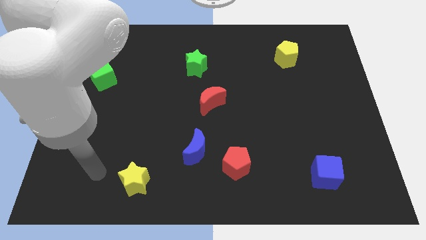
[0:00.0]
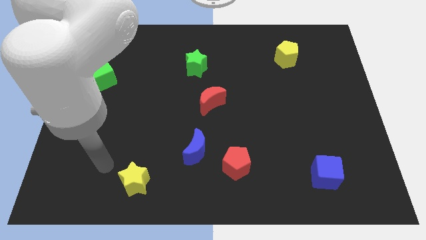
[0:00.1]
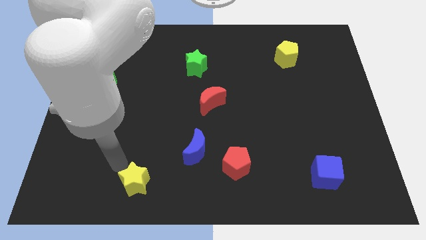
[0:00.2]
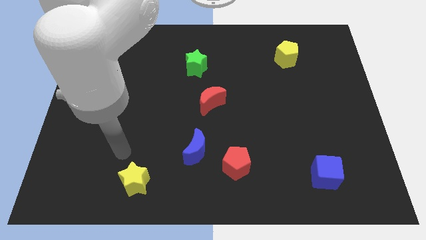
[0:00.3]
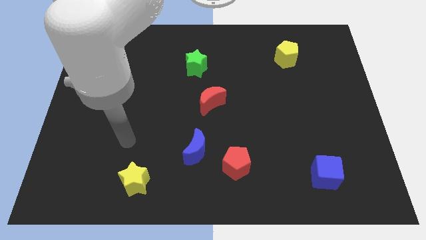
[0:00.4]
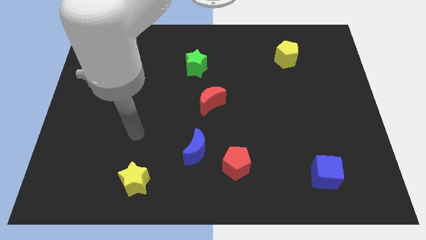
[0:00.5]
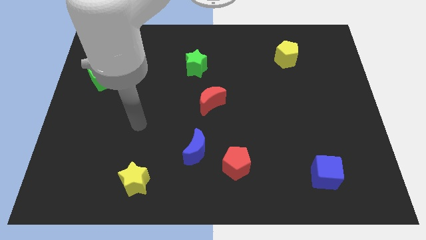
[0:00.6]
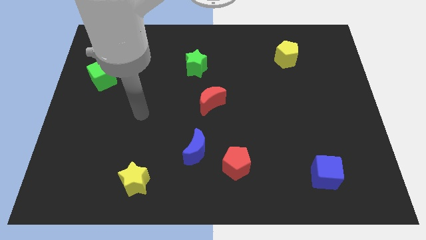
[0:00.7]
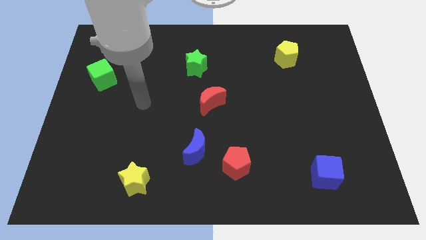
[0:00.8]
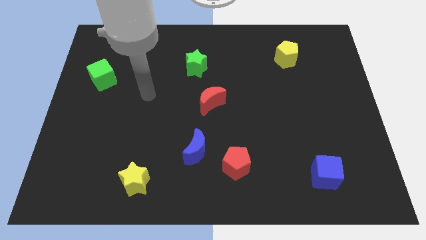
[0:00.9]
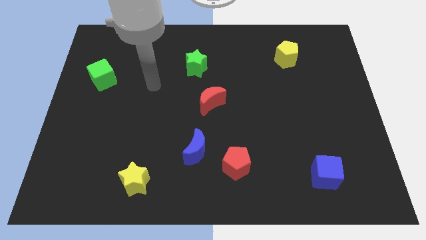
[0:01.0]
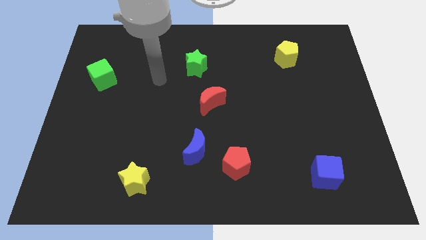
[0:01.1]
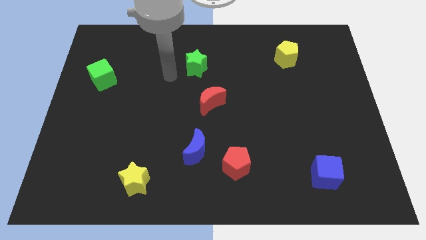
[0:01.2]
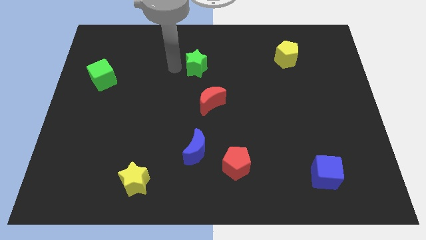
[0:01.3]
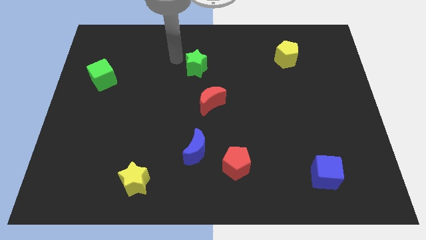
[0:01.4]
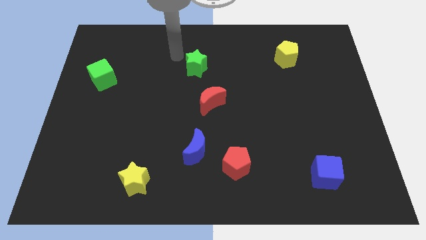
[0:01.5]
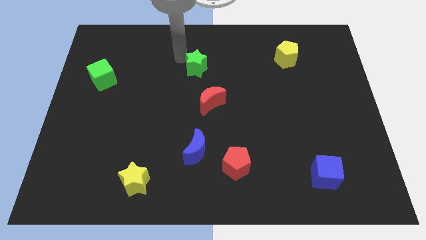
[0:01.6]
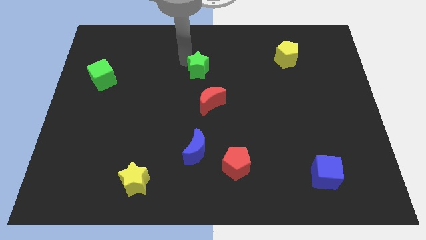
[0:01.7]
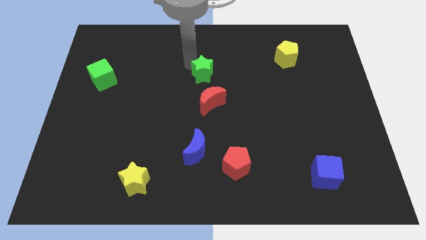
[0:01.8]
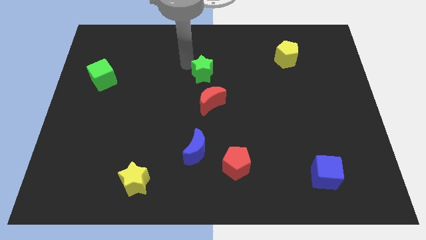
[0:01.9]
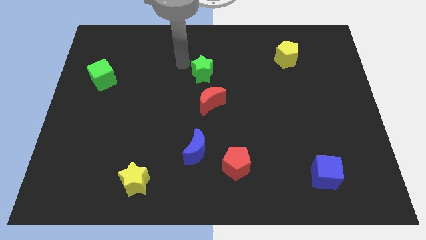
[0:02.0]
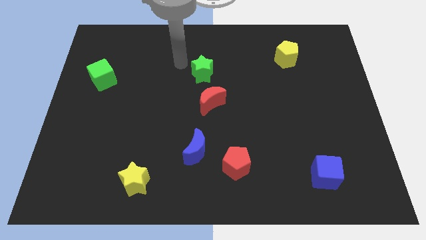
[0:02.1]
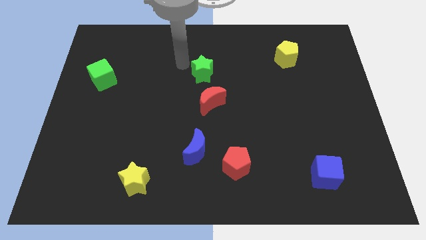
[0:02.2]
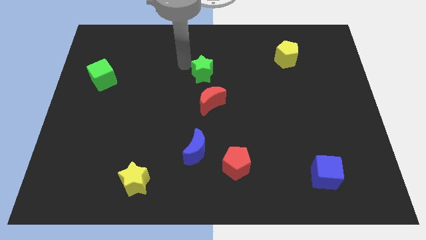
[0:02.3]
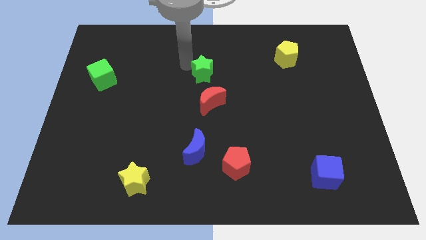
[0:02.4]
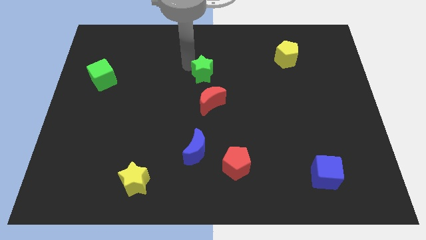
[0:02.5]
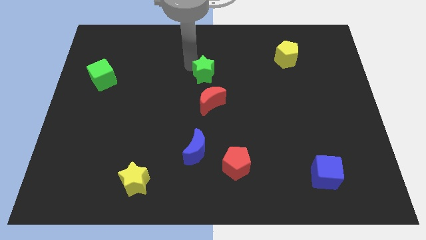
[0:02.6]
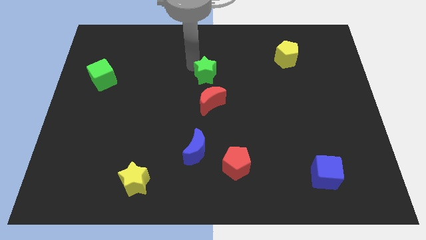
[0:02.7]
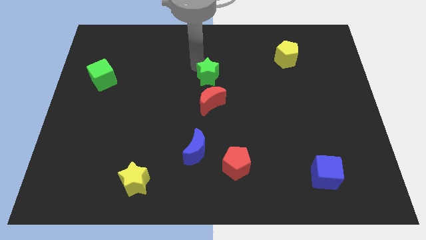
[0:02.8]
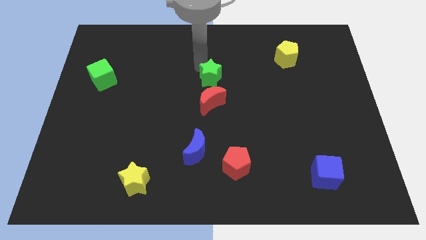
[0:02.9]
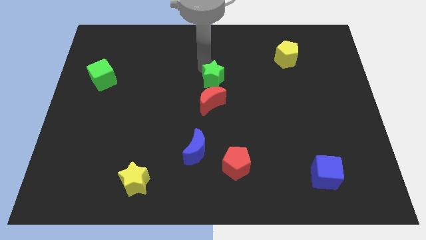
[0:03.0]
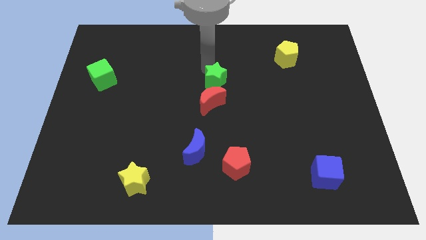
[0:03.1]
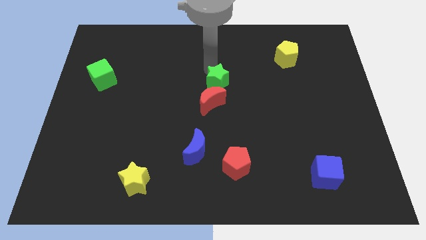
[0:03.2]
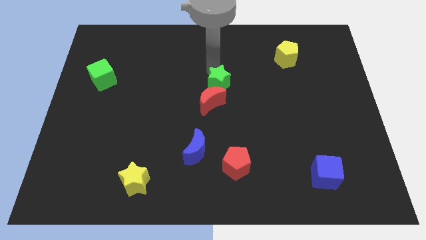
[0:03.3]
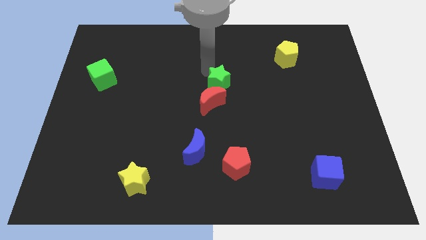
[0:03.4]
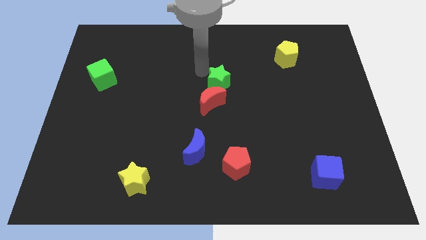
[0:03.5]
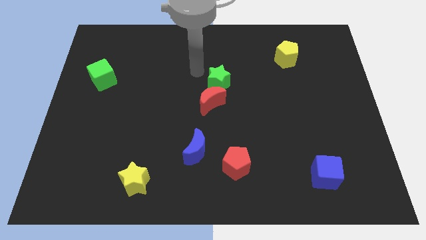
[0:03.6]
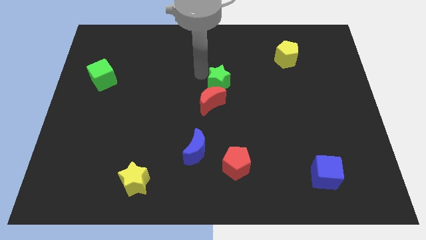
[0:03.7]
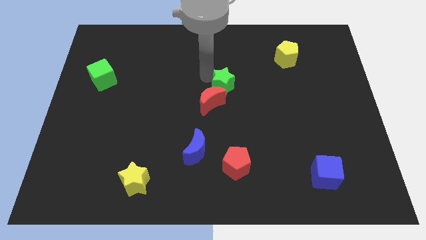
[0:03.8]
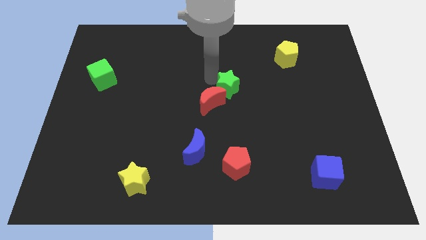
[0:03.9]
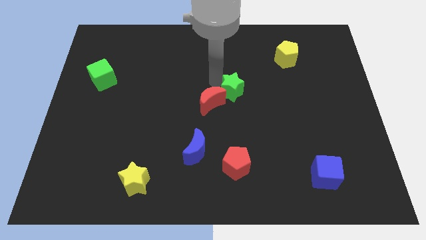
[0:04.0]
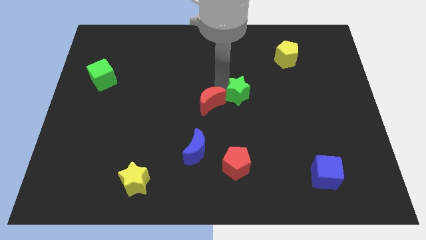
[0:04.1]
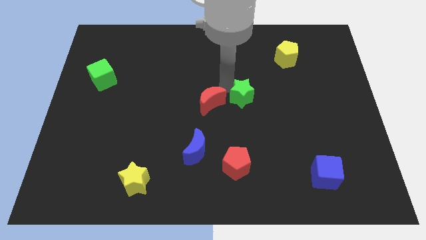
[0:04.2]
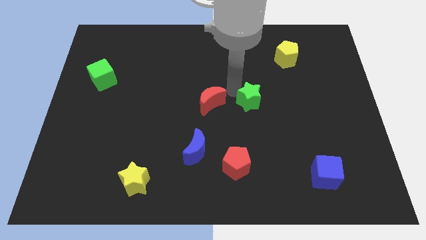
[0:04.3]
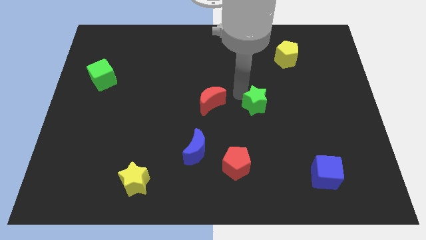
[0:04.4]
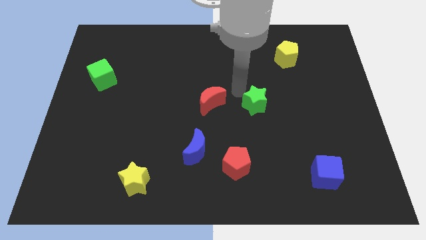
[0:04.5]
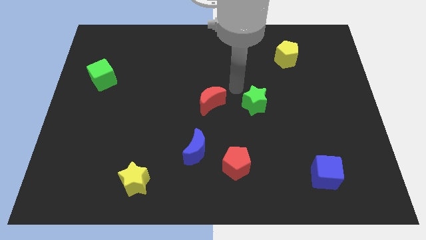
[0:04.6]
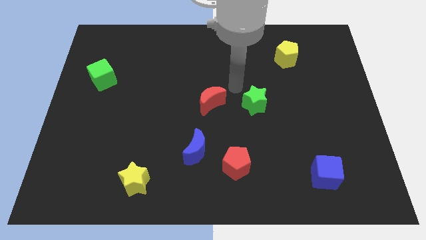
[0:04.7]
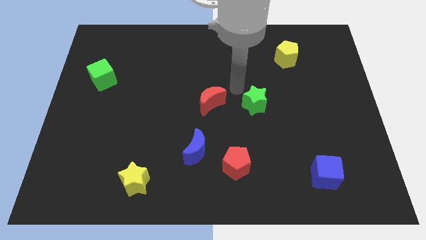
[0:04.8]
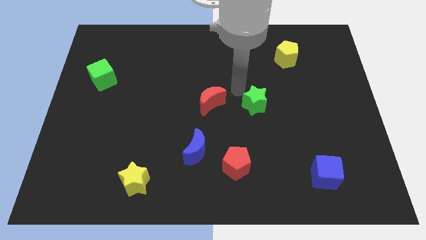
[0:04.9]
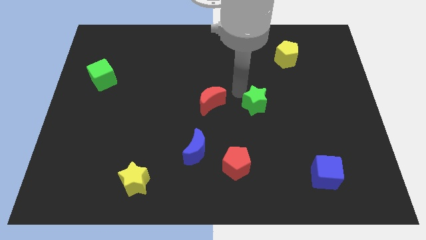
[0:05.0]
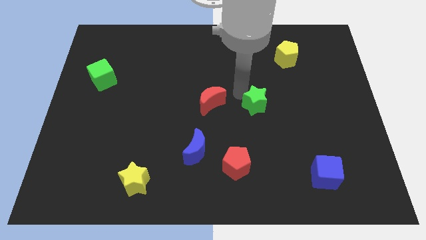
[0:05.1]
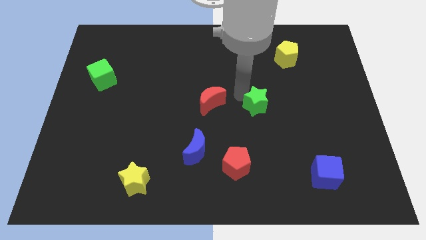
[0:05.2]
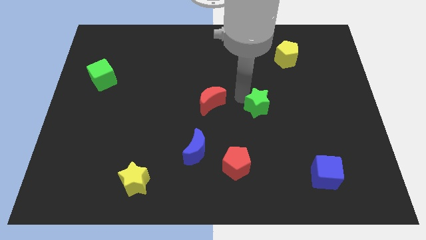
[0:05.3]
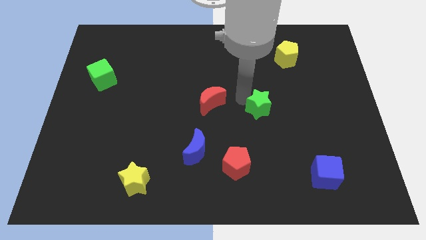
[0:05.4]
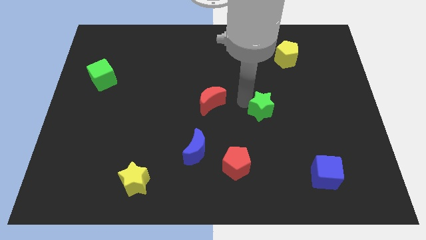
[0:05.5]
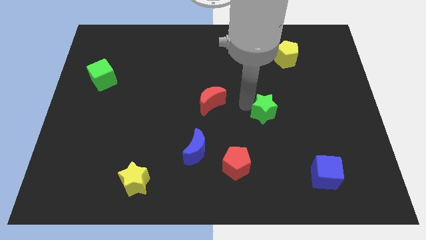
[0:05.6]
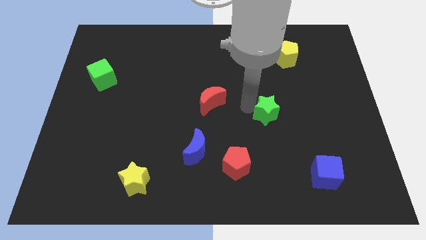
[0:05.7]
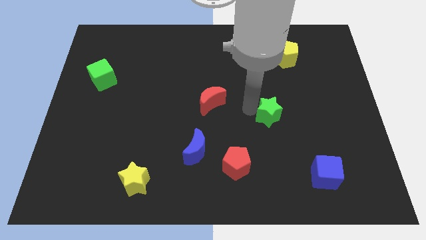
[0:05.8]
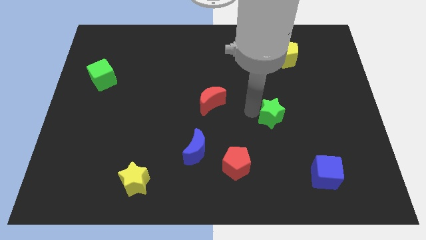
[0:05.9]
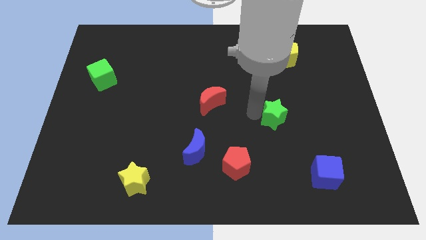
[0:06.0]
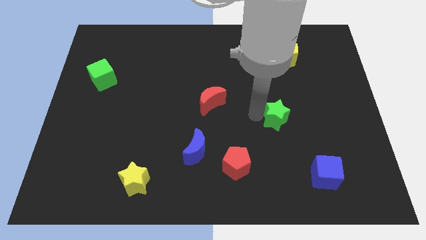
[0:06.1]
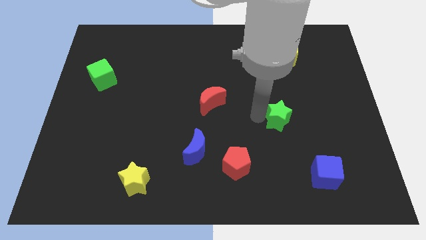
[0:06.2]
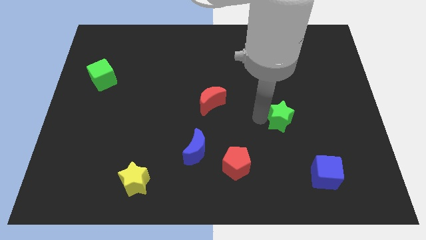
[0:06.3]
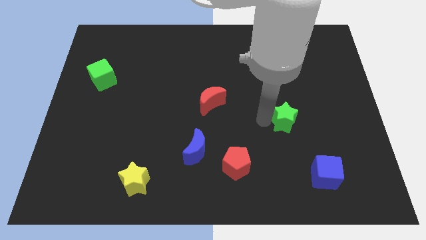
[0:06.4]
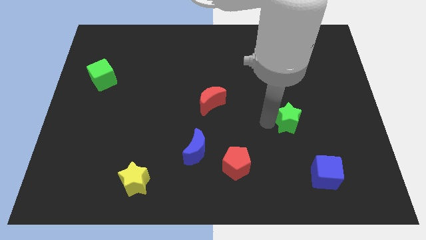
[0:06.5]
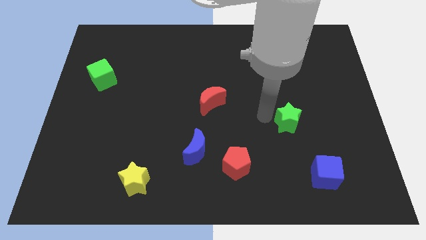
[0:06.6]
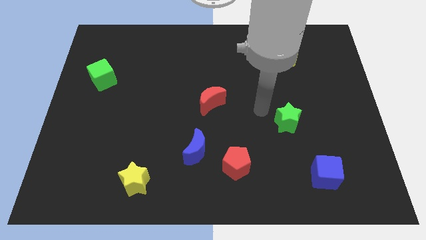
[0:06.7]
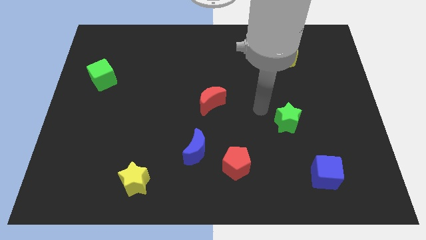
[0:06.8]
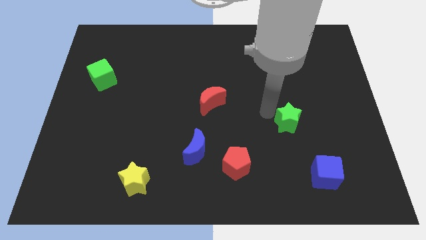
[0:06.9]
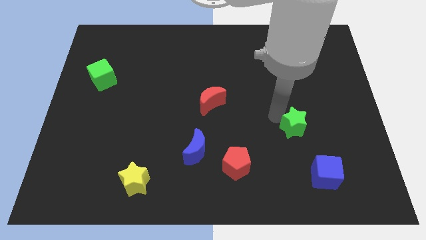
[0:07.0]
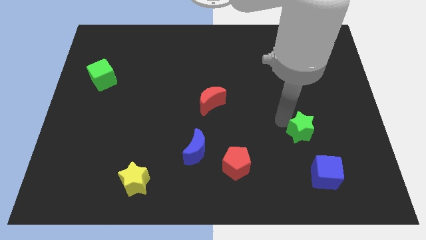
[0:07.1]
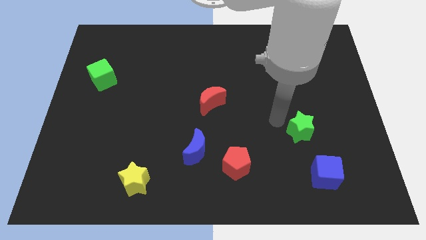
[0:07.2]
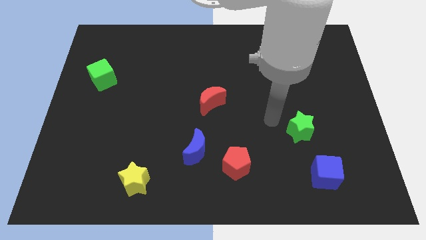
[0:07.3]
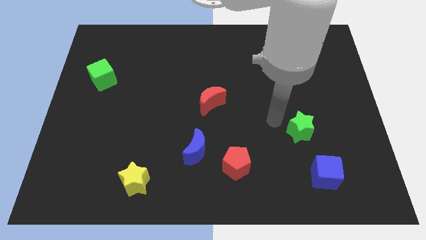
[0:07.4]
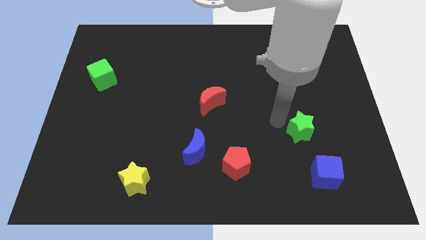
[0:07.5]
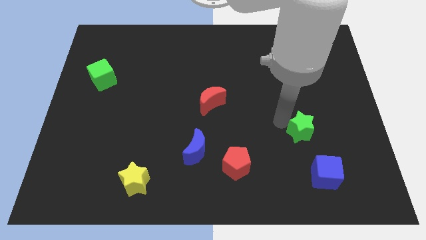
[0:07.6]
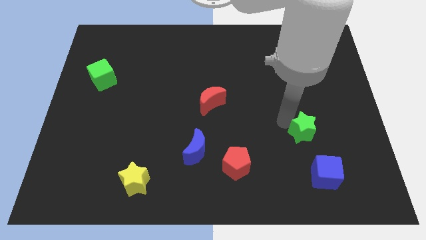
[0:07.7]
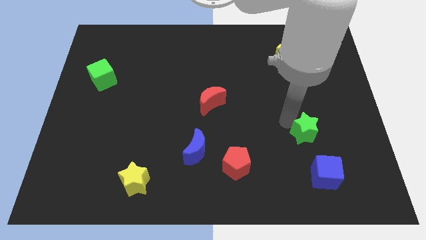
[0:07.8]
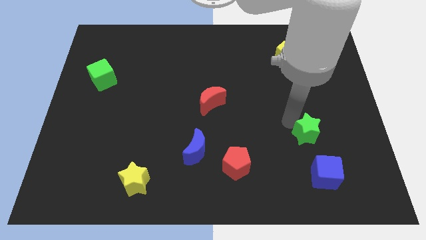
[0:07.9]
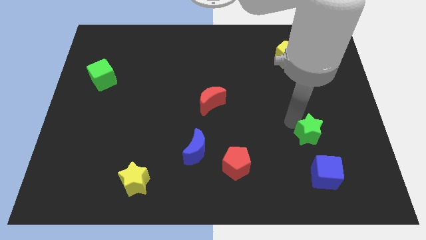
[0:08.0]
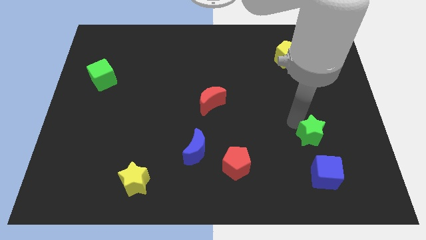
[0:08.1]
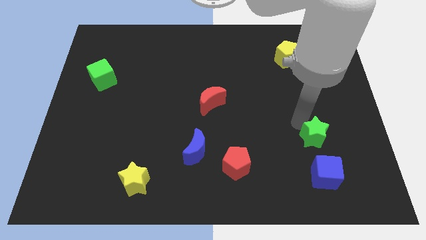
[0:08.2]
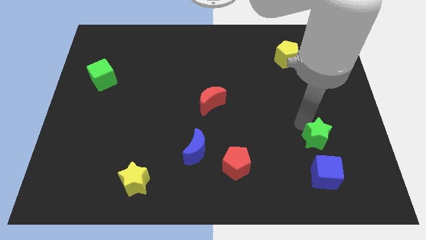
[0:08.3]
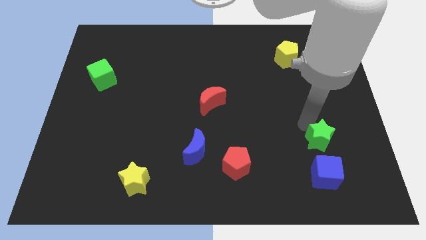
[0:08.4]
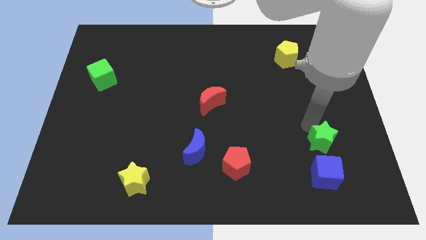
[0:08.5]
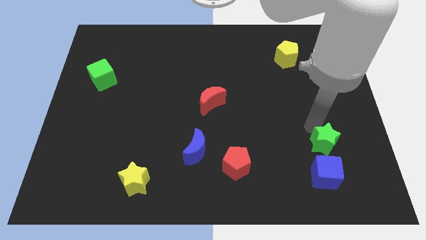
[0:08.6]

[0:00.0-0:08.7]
move the green star diagonally up and to the right of the blue cube
